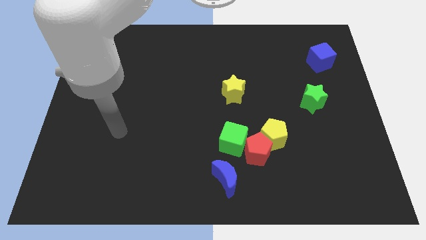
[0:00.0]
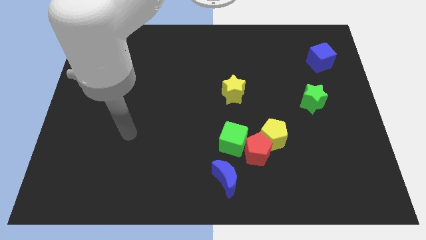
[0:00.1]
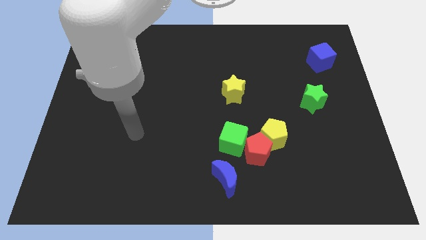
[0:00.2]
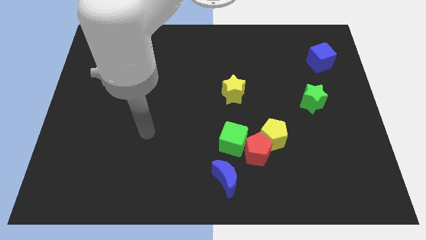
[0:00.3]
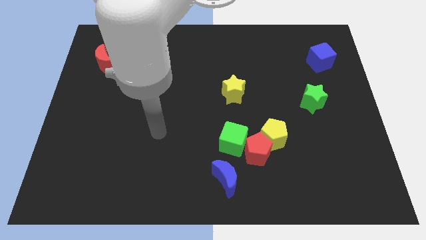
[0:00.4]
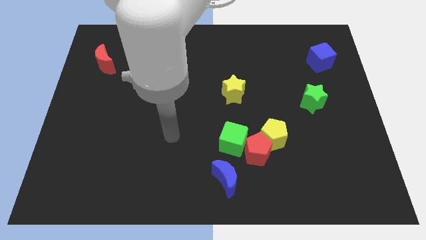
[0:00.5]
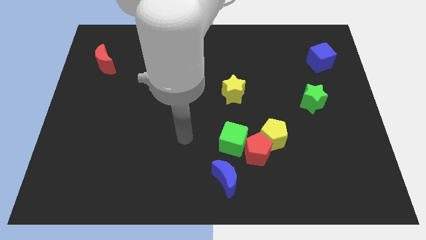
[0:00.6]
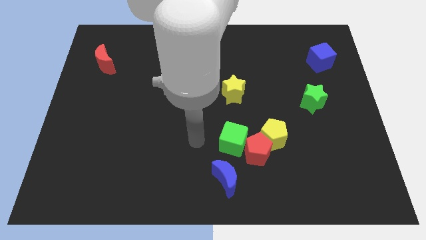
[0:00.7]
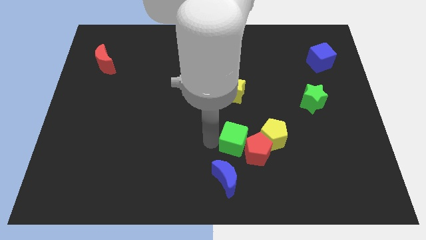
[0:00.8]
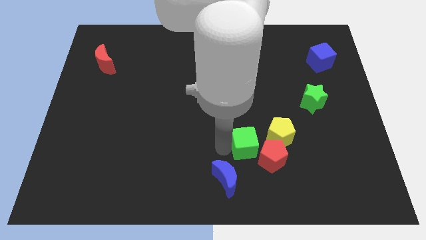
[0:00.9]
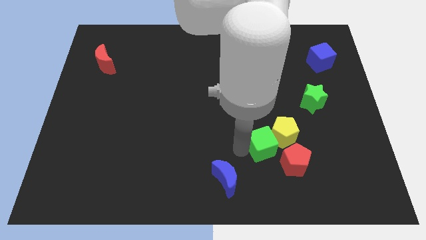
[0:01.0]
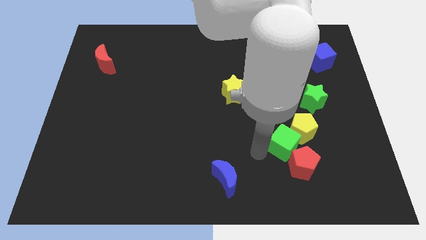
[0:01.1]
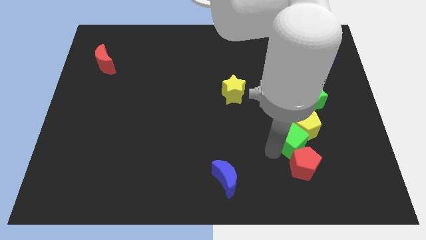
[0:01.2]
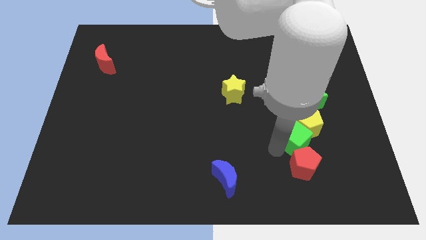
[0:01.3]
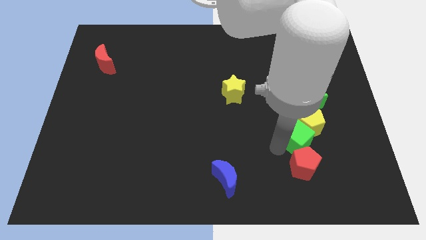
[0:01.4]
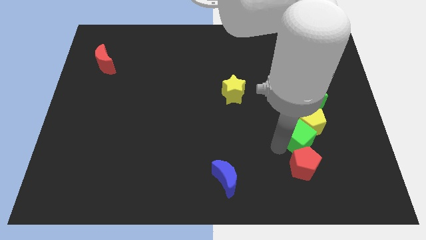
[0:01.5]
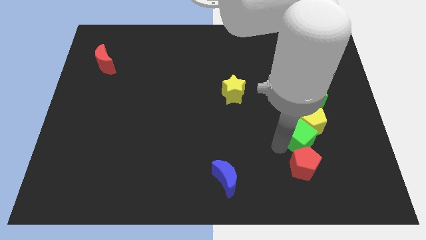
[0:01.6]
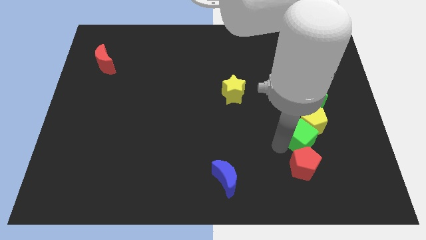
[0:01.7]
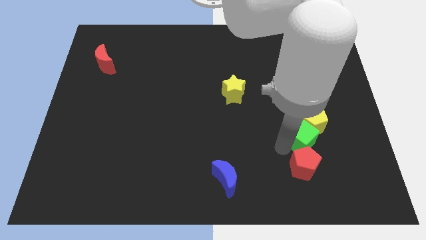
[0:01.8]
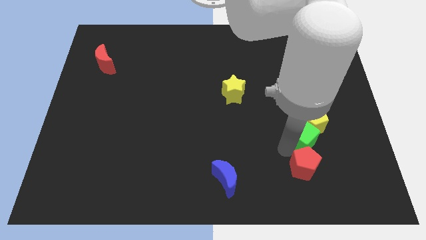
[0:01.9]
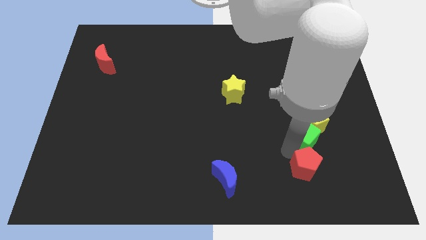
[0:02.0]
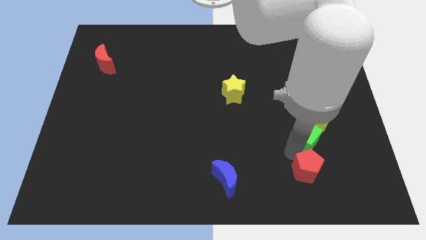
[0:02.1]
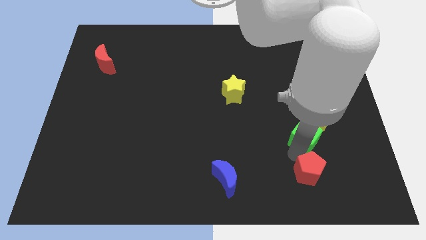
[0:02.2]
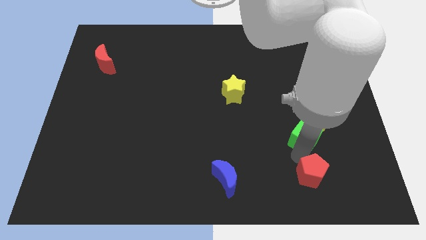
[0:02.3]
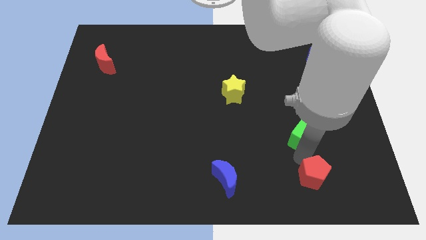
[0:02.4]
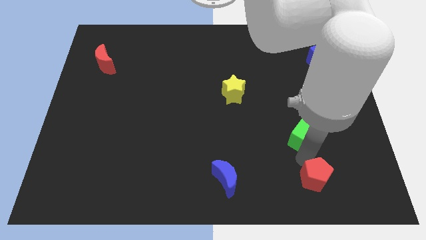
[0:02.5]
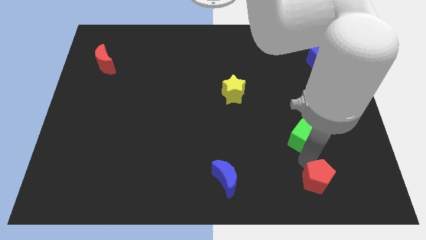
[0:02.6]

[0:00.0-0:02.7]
pull the red pentagon apart from the clump

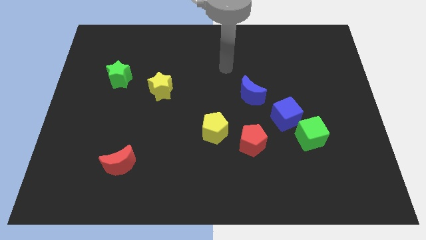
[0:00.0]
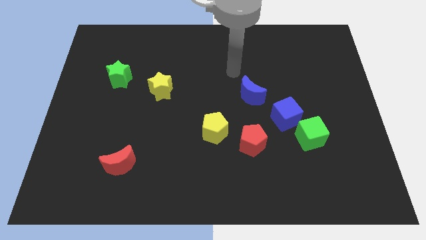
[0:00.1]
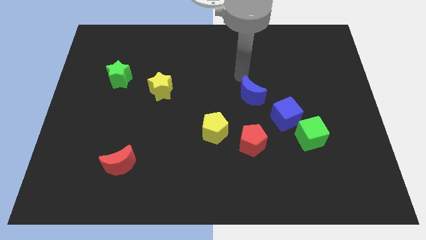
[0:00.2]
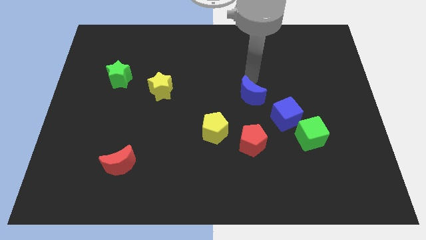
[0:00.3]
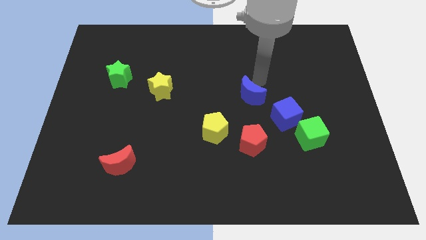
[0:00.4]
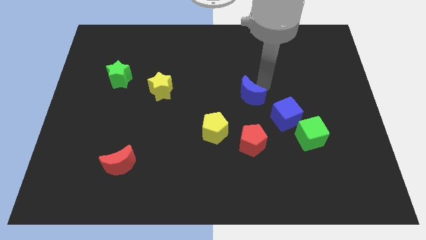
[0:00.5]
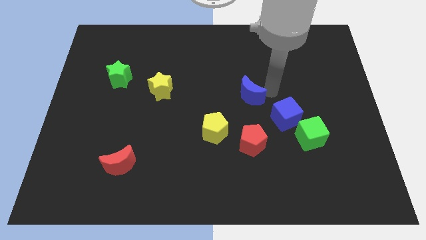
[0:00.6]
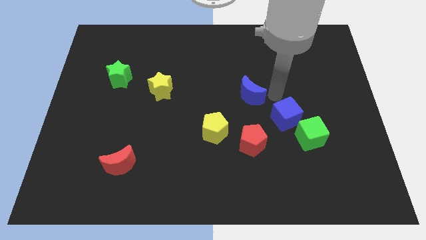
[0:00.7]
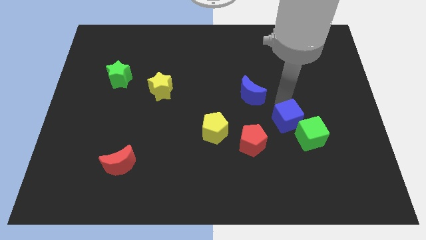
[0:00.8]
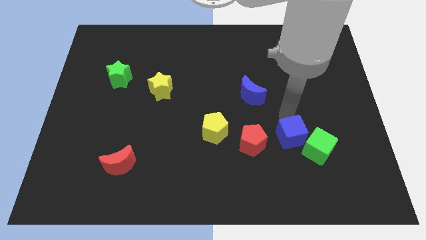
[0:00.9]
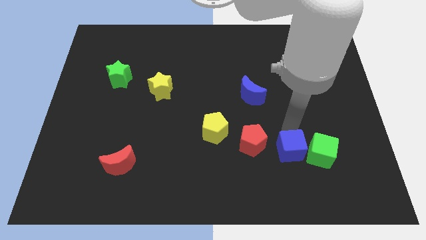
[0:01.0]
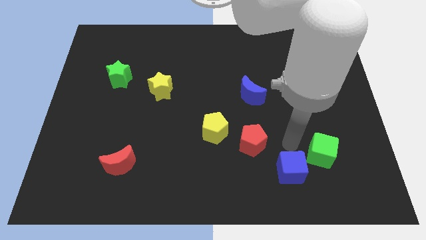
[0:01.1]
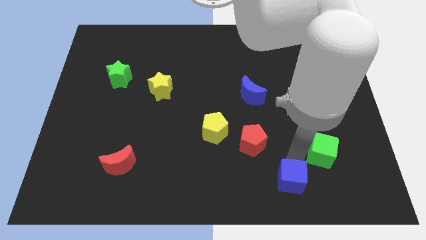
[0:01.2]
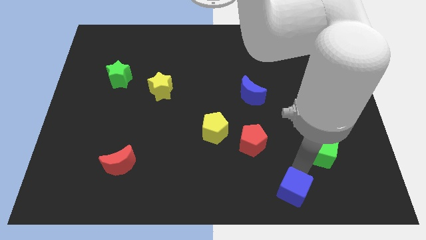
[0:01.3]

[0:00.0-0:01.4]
move the green cube away from the blue cube

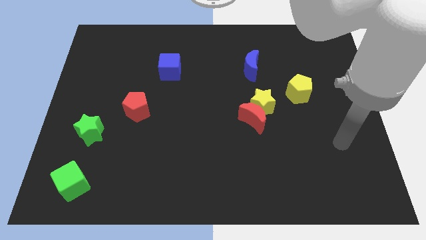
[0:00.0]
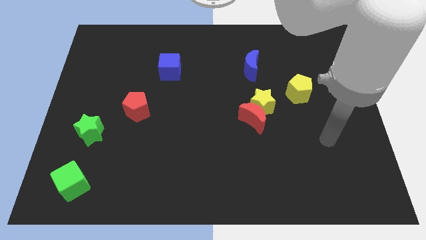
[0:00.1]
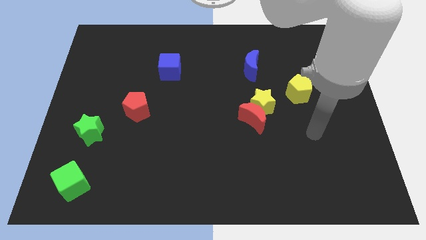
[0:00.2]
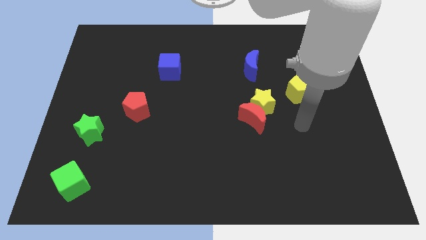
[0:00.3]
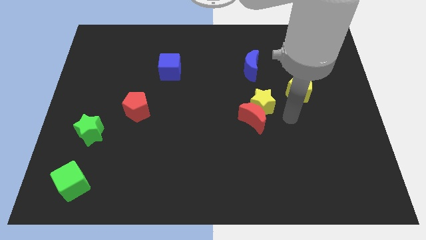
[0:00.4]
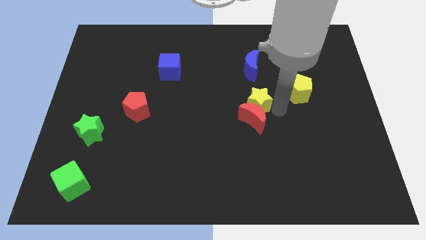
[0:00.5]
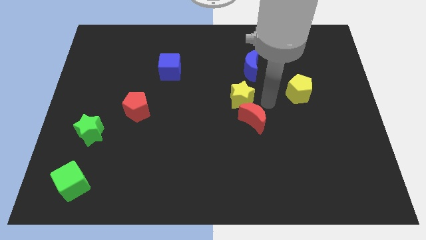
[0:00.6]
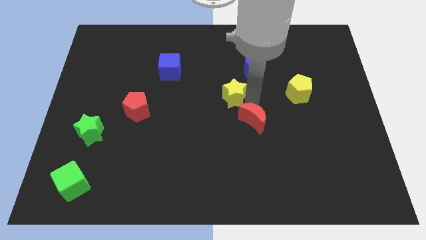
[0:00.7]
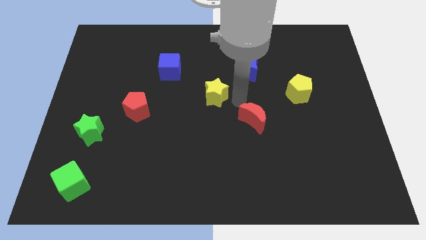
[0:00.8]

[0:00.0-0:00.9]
pull the red moon apart from the yellow star

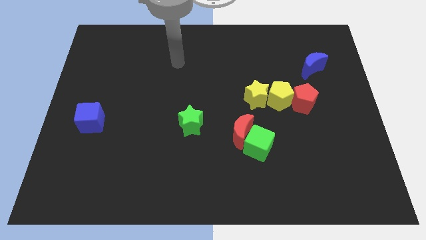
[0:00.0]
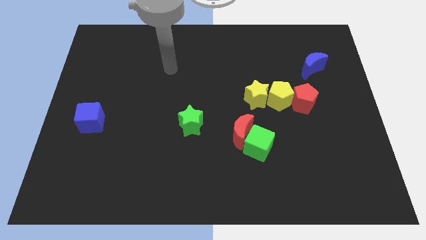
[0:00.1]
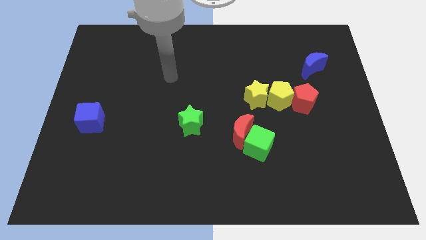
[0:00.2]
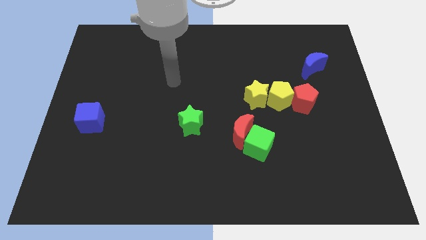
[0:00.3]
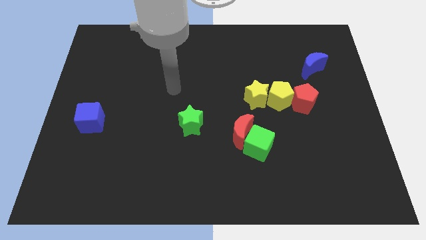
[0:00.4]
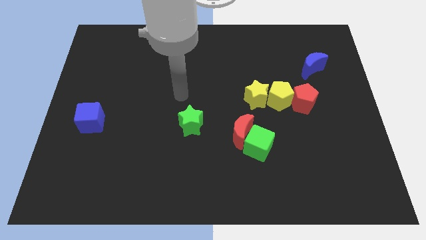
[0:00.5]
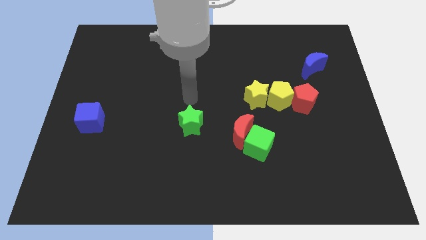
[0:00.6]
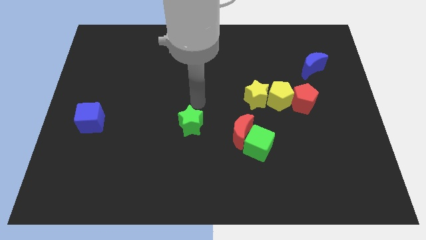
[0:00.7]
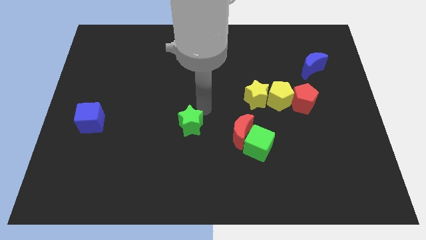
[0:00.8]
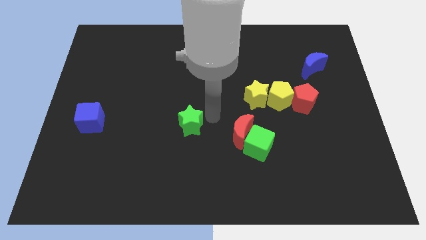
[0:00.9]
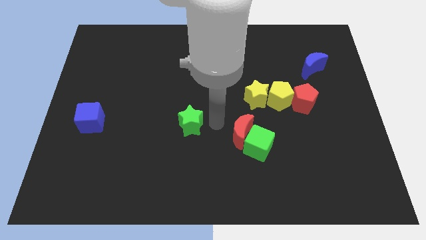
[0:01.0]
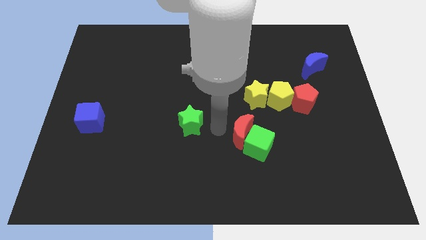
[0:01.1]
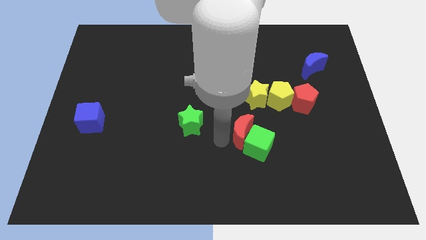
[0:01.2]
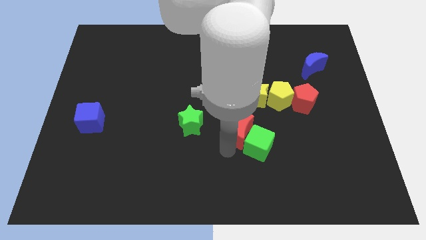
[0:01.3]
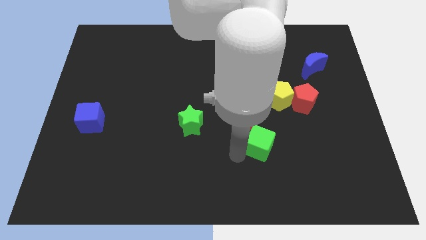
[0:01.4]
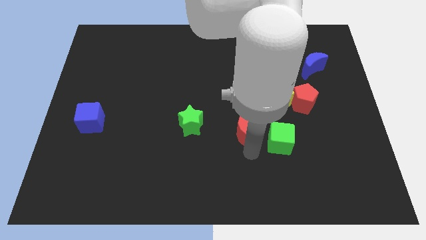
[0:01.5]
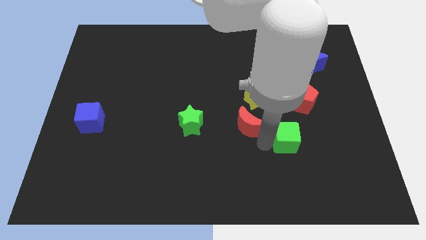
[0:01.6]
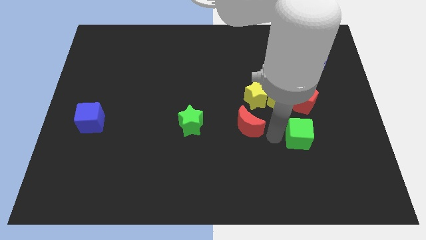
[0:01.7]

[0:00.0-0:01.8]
move the red moon away from the green cube

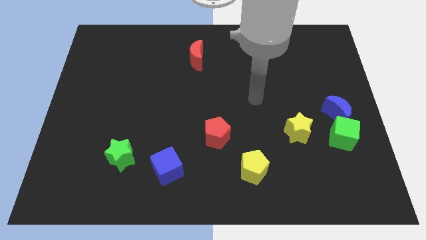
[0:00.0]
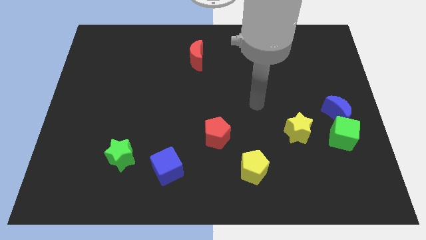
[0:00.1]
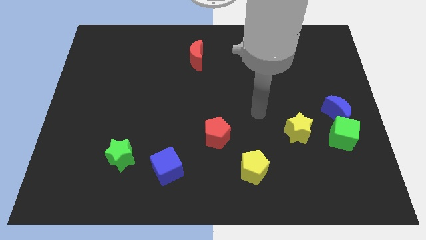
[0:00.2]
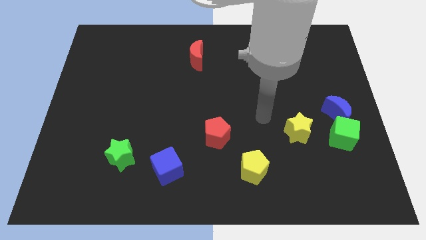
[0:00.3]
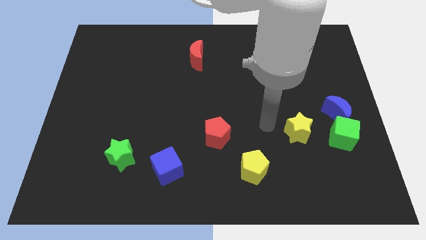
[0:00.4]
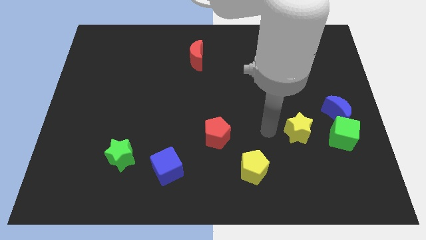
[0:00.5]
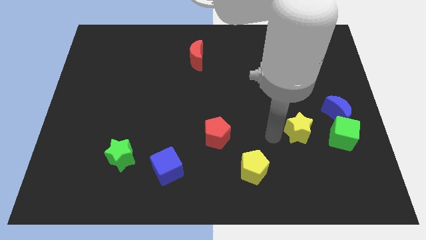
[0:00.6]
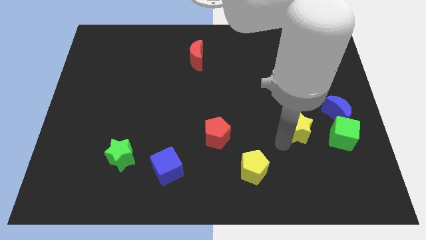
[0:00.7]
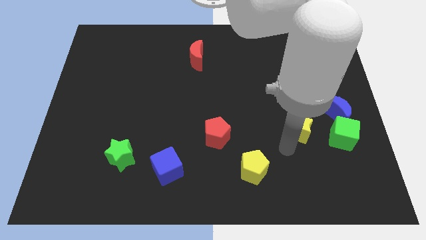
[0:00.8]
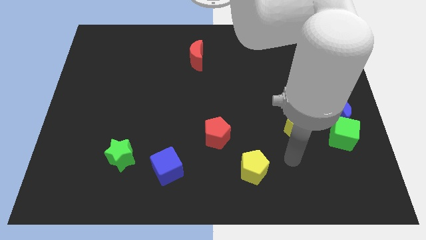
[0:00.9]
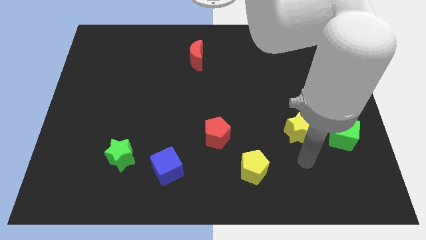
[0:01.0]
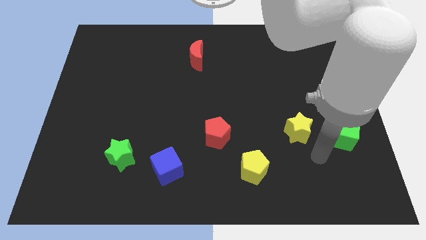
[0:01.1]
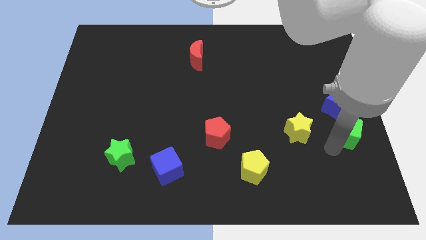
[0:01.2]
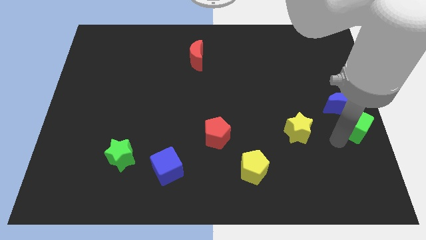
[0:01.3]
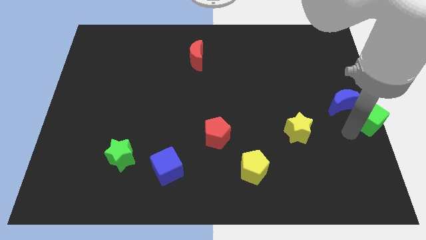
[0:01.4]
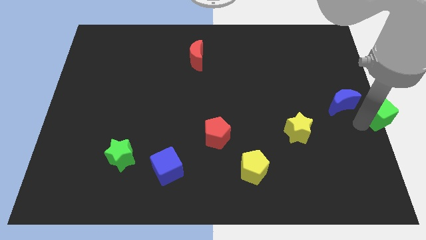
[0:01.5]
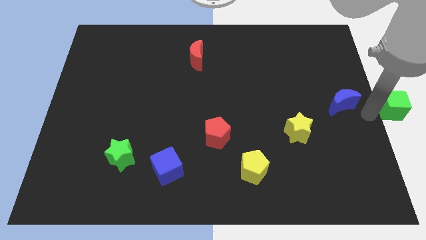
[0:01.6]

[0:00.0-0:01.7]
pull the blue moon apart from the green cube

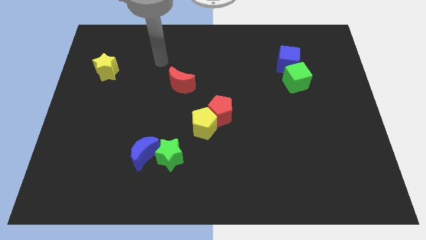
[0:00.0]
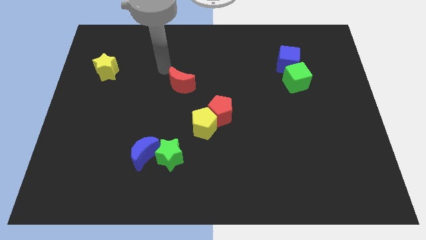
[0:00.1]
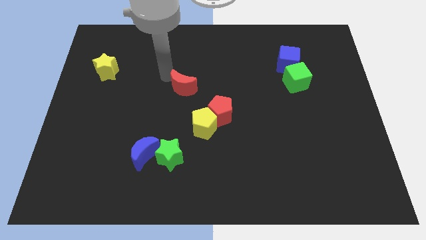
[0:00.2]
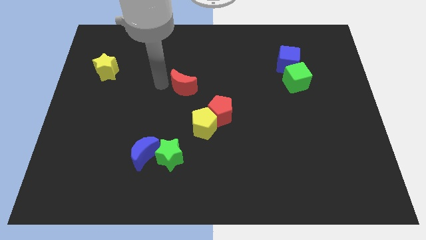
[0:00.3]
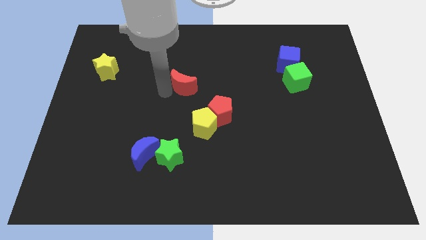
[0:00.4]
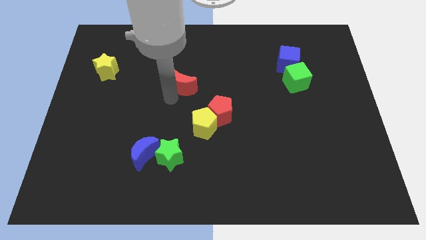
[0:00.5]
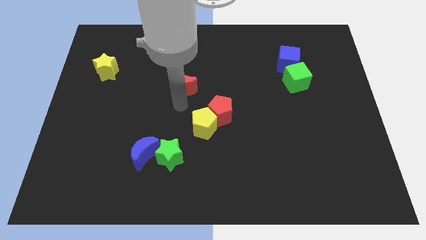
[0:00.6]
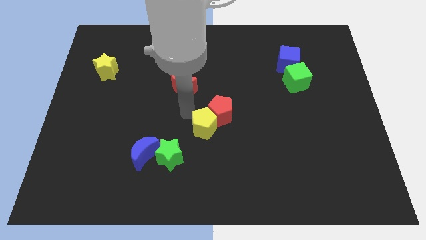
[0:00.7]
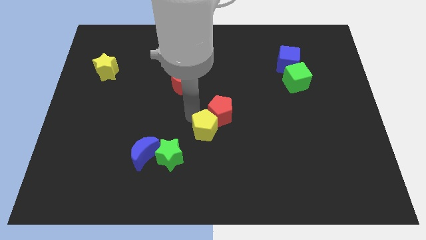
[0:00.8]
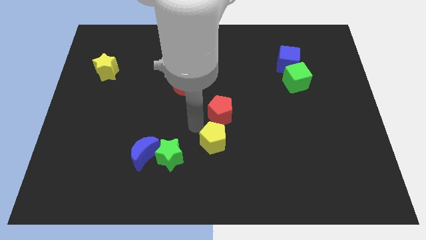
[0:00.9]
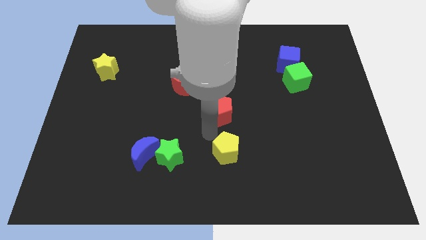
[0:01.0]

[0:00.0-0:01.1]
pull the red pentagon apart from the yellow pentagon
